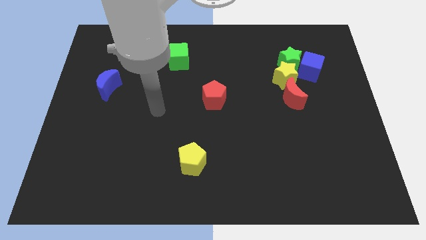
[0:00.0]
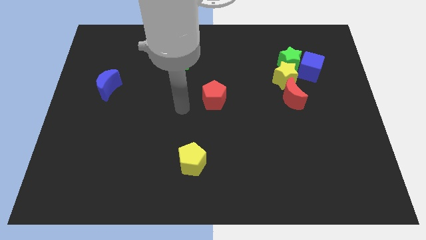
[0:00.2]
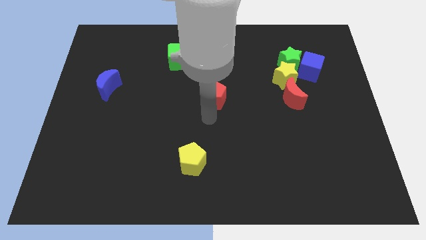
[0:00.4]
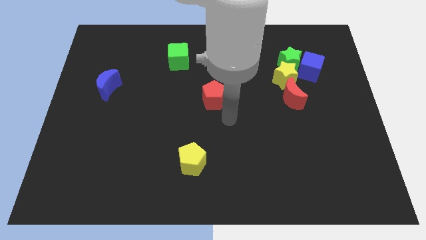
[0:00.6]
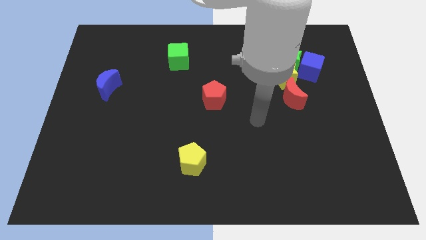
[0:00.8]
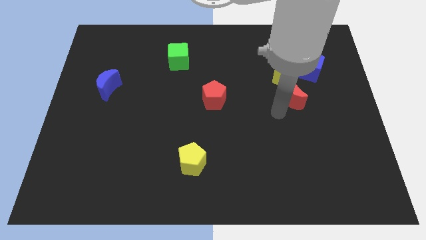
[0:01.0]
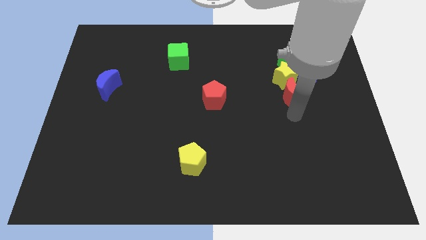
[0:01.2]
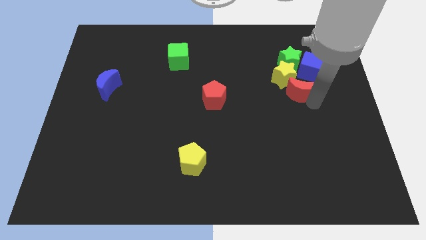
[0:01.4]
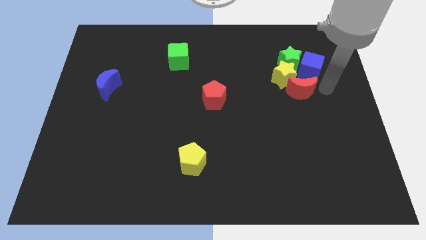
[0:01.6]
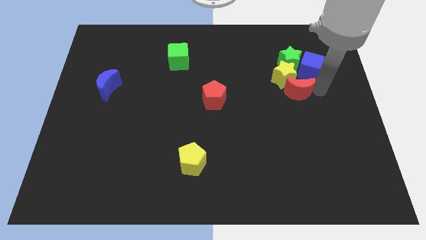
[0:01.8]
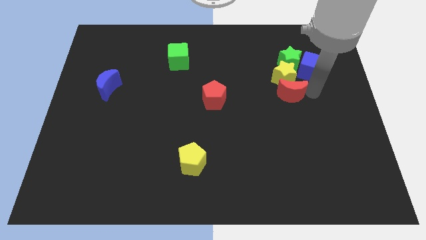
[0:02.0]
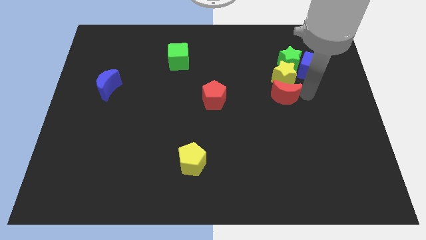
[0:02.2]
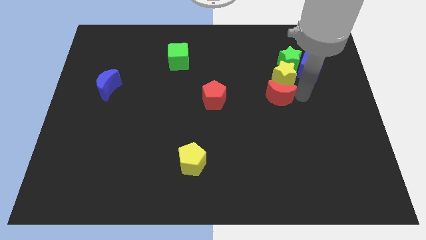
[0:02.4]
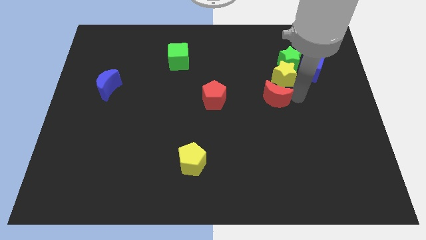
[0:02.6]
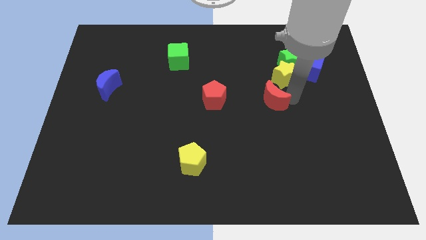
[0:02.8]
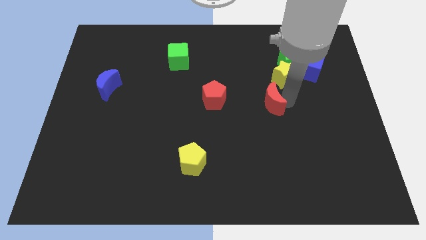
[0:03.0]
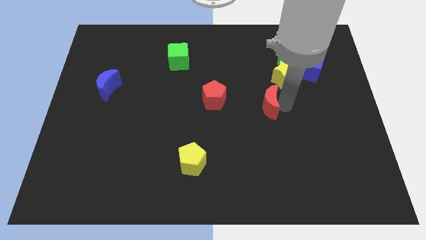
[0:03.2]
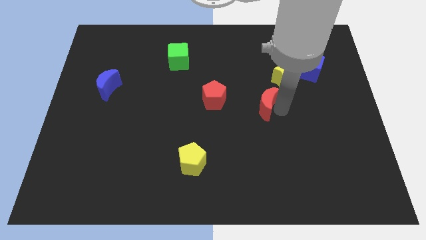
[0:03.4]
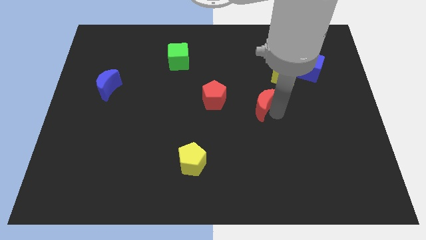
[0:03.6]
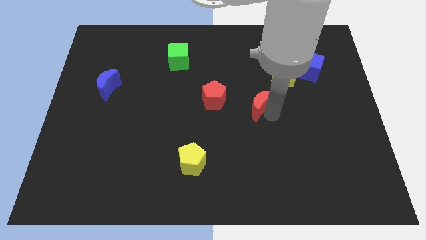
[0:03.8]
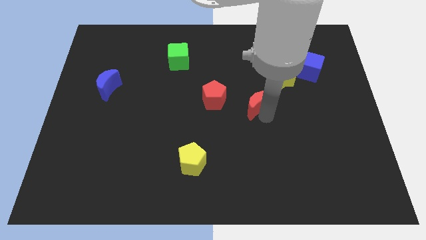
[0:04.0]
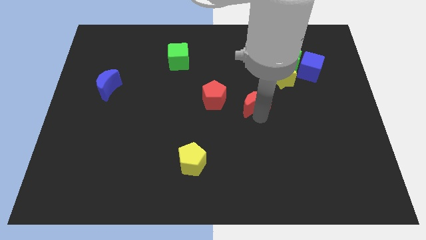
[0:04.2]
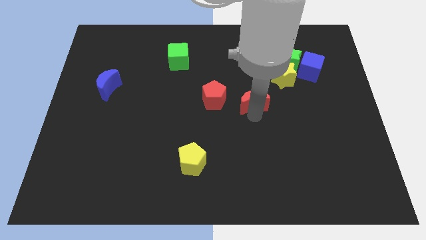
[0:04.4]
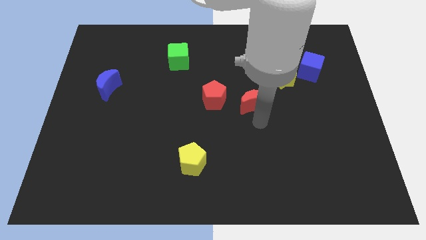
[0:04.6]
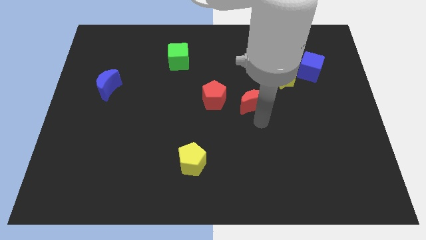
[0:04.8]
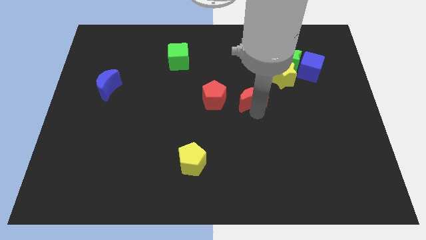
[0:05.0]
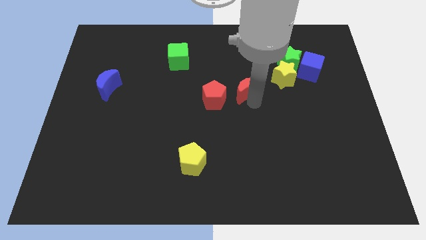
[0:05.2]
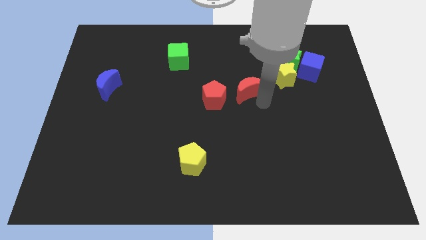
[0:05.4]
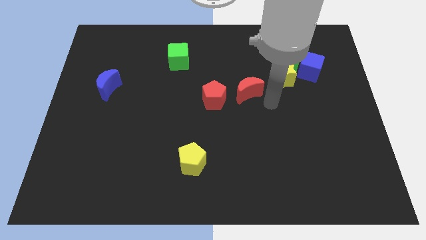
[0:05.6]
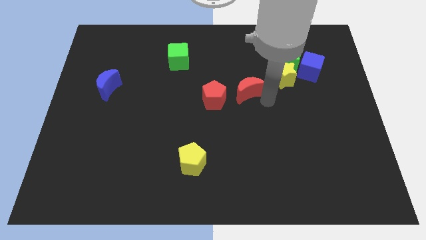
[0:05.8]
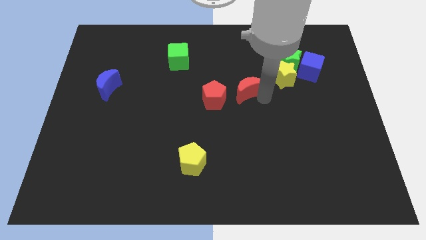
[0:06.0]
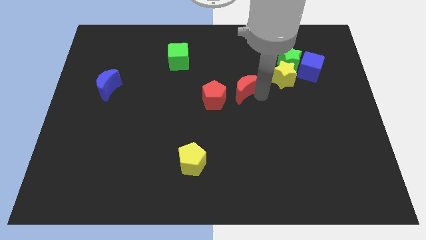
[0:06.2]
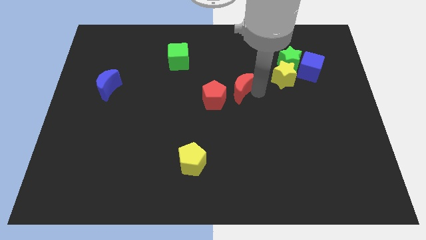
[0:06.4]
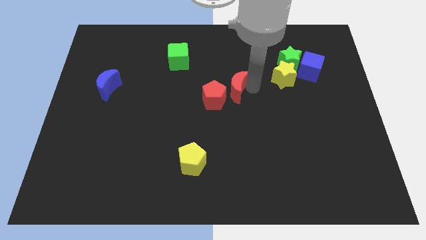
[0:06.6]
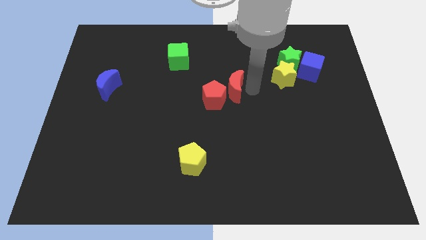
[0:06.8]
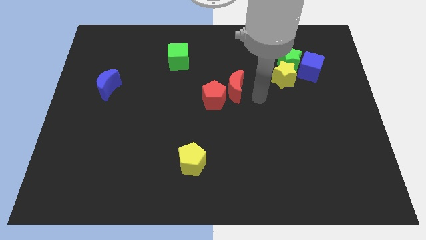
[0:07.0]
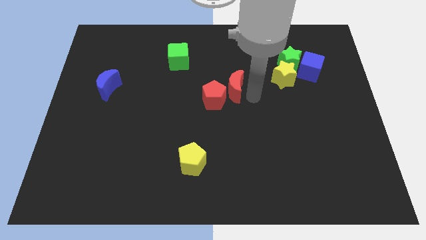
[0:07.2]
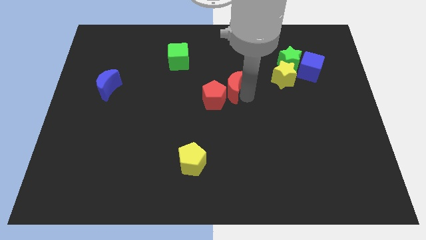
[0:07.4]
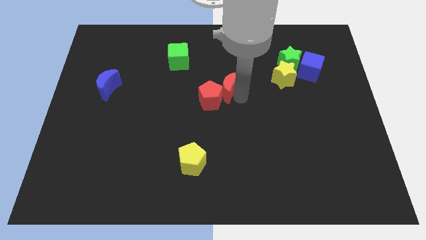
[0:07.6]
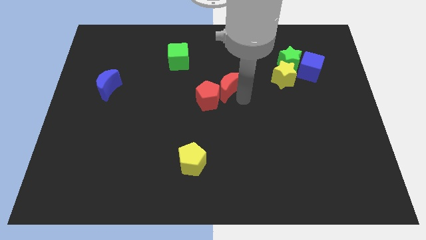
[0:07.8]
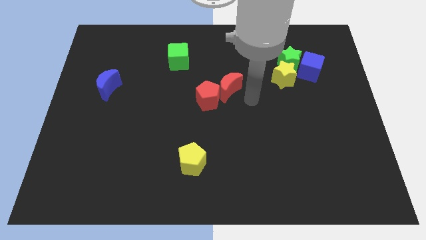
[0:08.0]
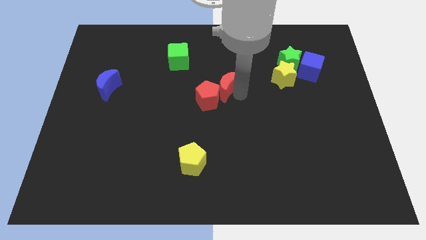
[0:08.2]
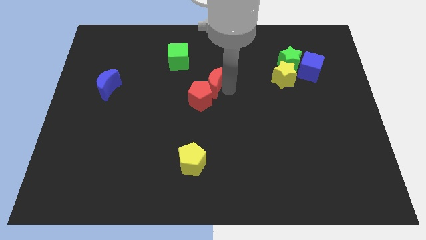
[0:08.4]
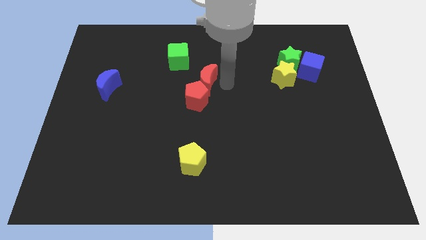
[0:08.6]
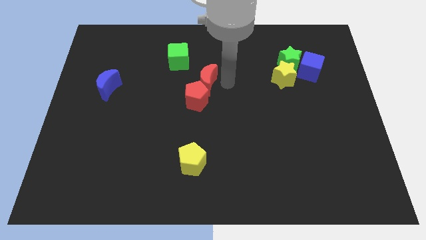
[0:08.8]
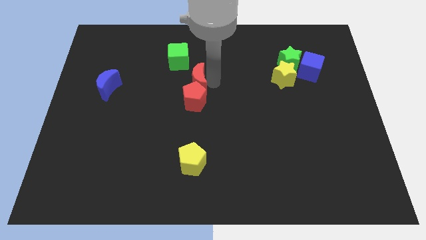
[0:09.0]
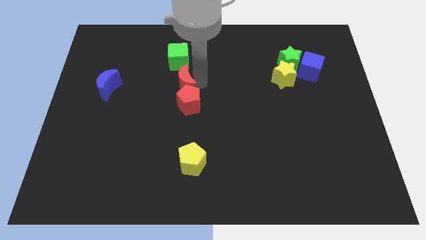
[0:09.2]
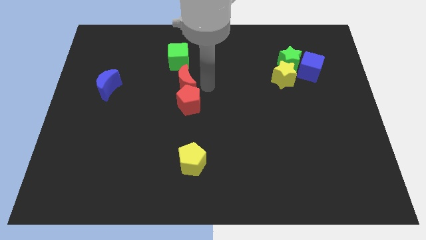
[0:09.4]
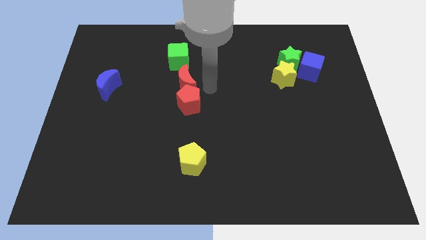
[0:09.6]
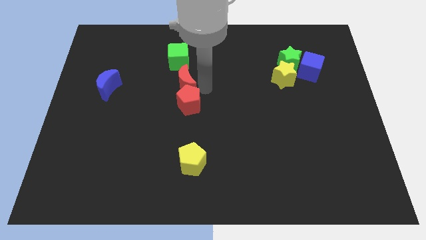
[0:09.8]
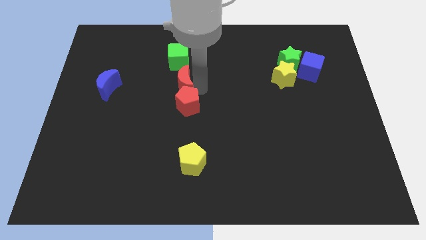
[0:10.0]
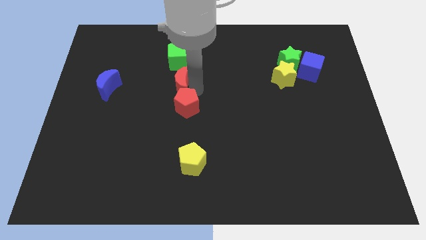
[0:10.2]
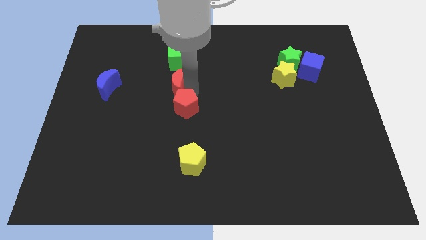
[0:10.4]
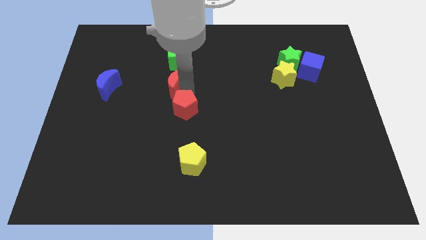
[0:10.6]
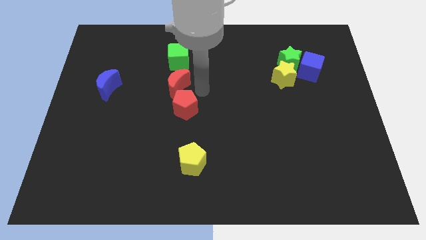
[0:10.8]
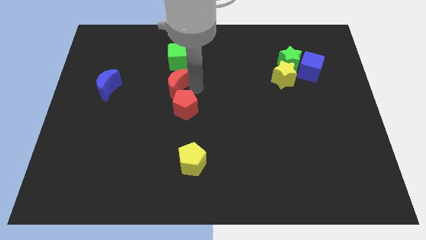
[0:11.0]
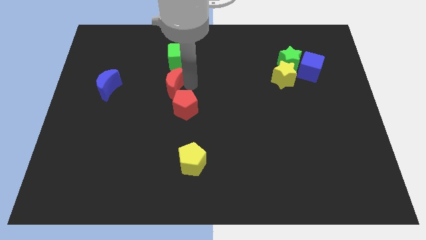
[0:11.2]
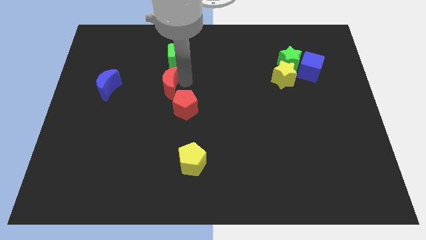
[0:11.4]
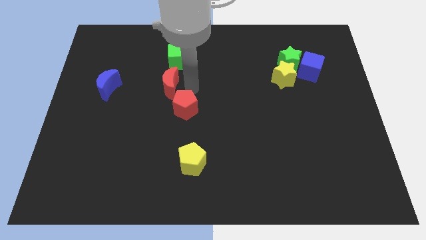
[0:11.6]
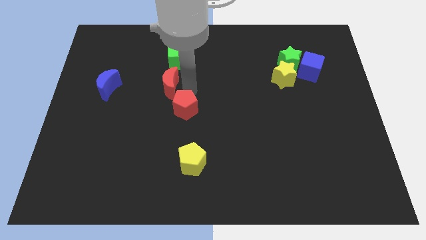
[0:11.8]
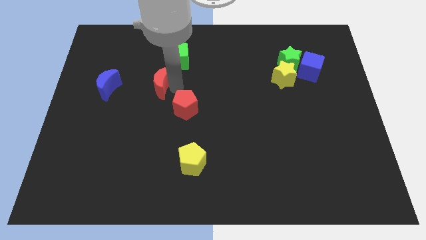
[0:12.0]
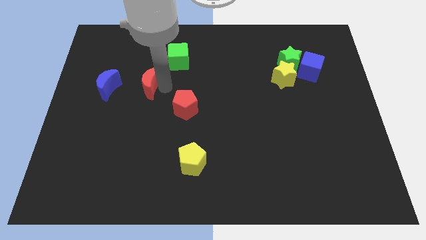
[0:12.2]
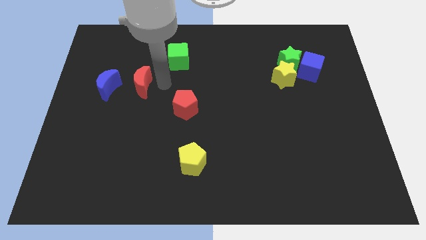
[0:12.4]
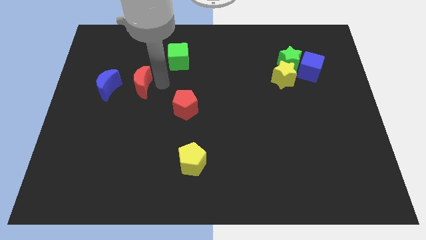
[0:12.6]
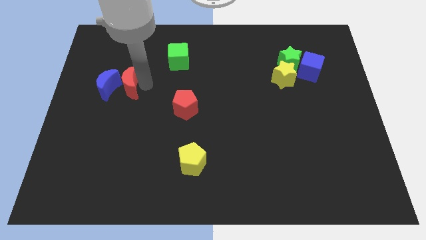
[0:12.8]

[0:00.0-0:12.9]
slide the red moon close to the blue moon
